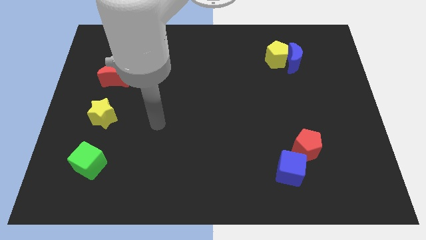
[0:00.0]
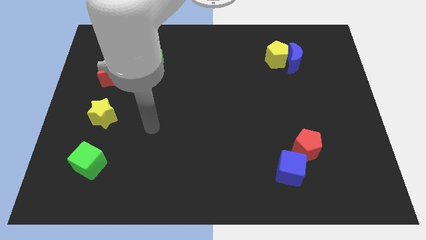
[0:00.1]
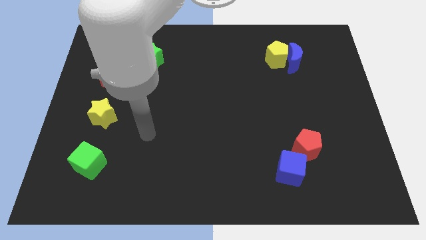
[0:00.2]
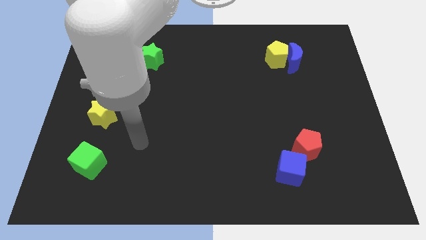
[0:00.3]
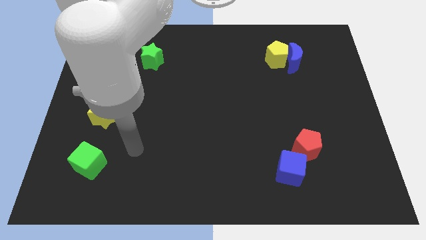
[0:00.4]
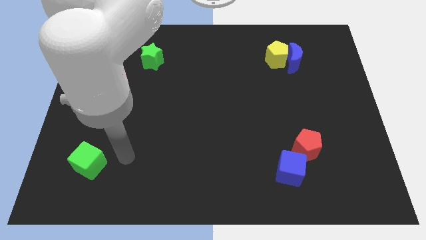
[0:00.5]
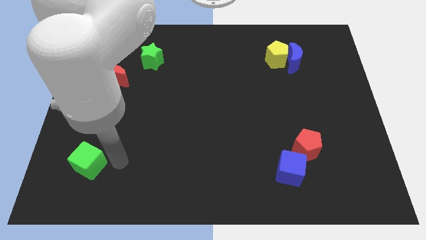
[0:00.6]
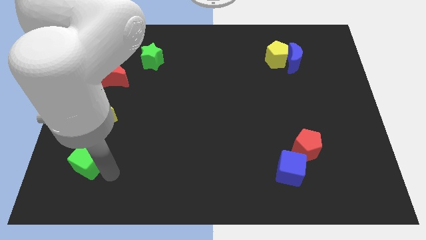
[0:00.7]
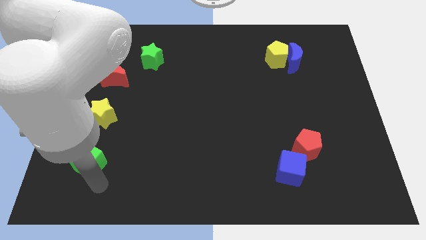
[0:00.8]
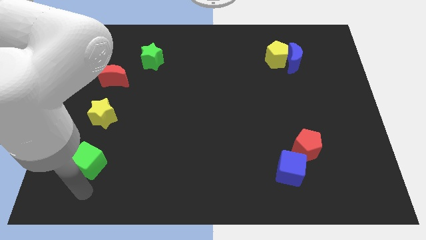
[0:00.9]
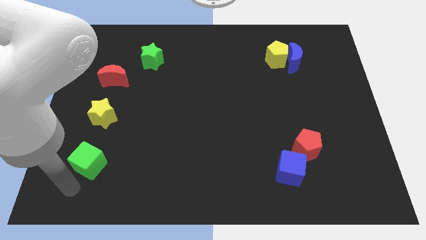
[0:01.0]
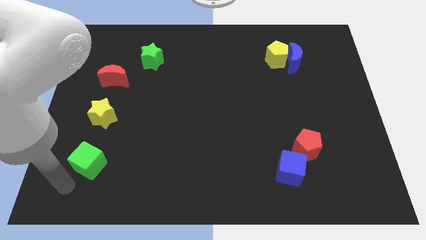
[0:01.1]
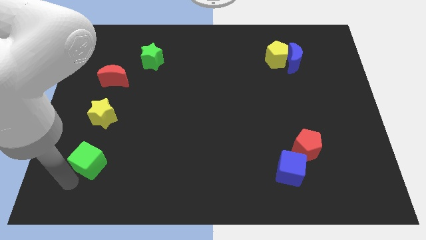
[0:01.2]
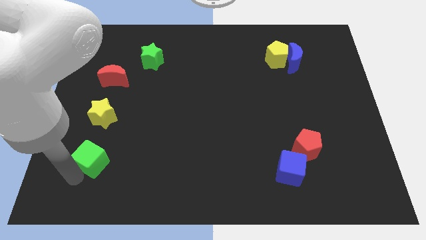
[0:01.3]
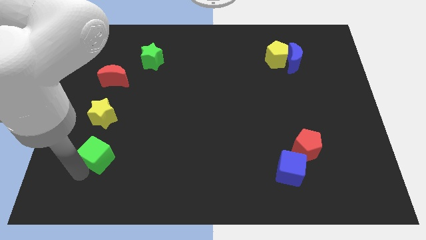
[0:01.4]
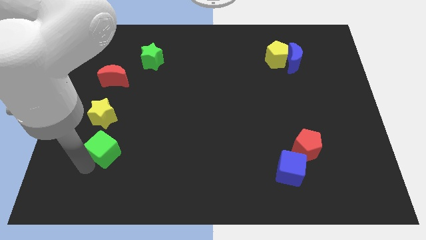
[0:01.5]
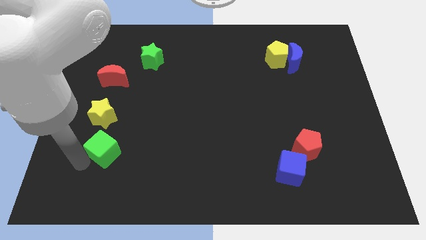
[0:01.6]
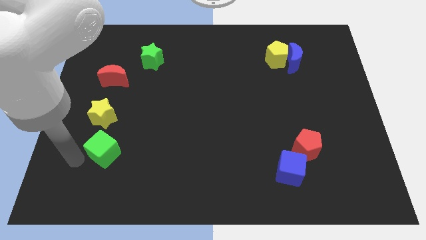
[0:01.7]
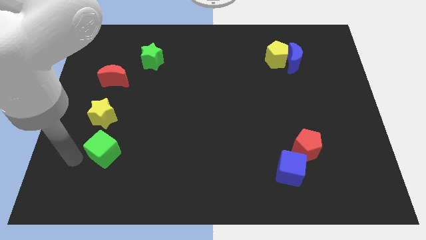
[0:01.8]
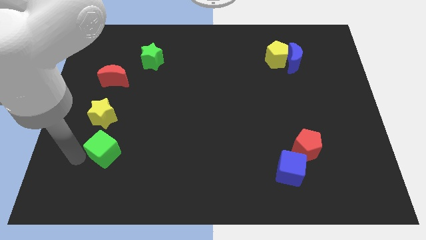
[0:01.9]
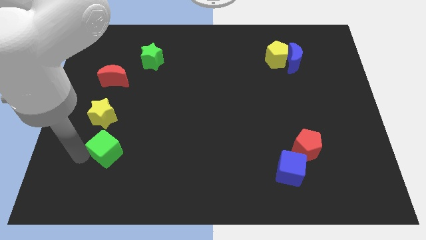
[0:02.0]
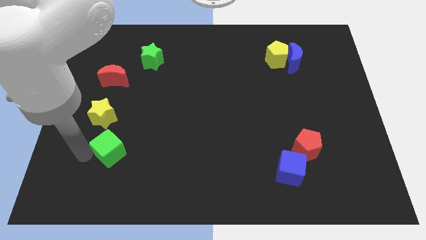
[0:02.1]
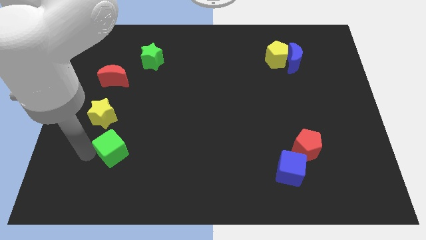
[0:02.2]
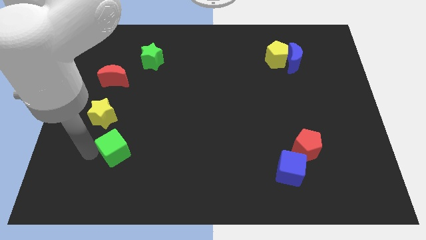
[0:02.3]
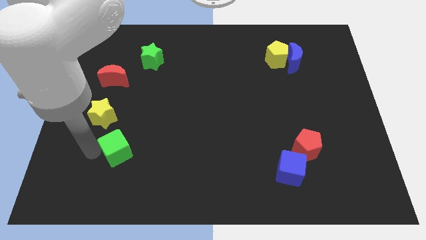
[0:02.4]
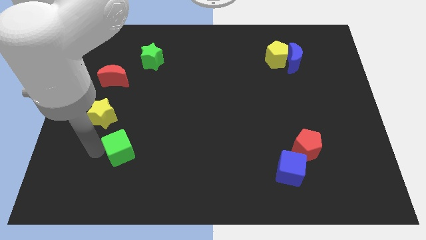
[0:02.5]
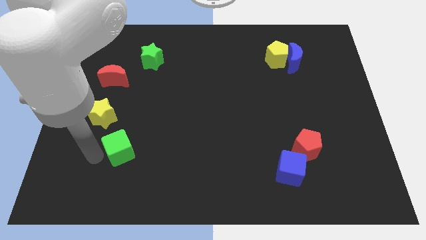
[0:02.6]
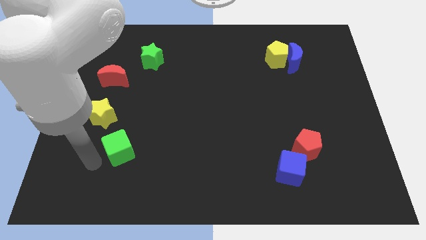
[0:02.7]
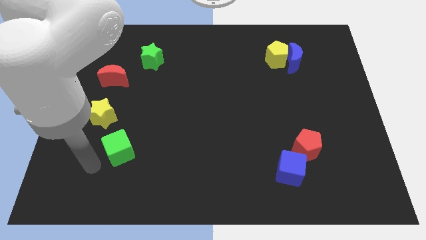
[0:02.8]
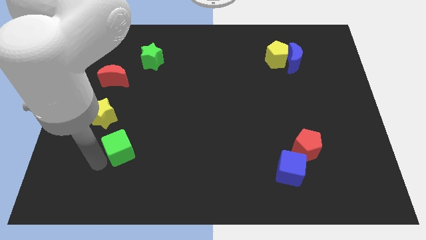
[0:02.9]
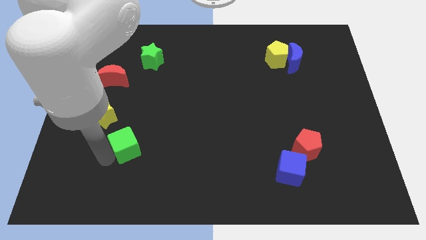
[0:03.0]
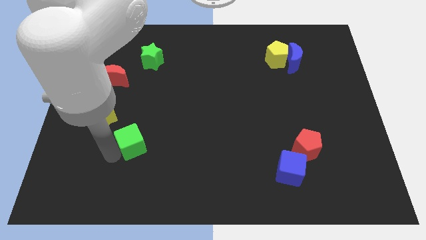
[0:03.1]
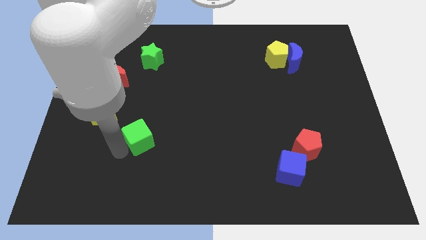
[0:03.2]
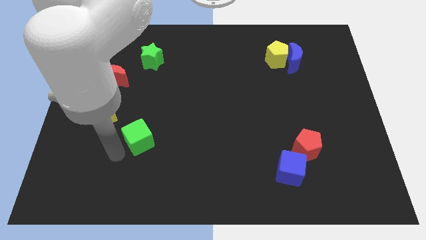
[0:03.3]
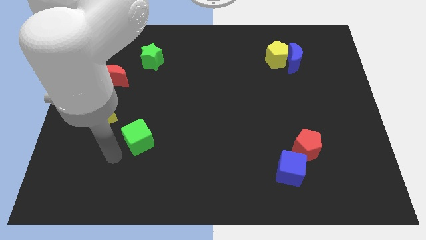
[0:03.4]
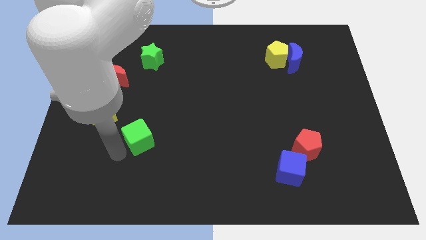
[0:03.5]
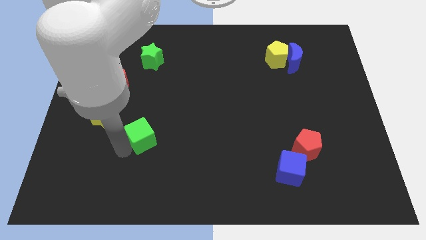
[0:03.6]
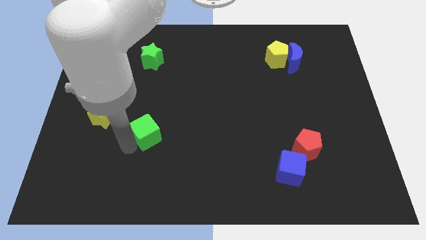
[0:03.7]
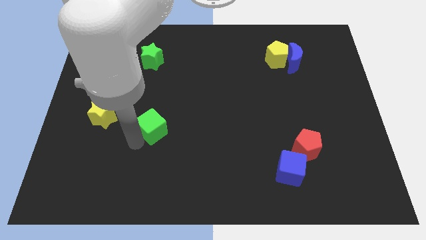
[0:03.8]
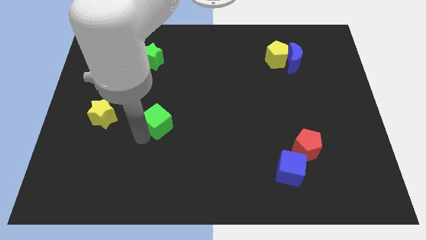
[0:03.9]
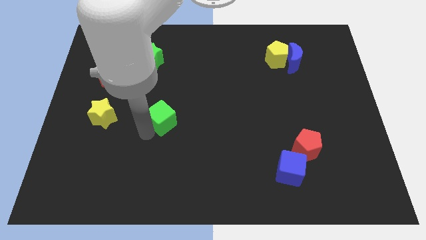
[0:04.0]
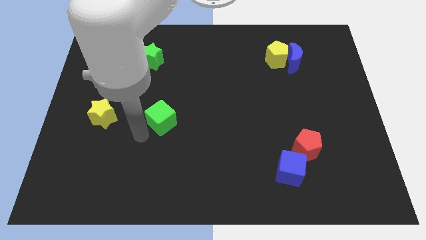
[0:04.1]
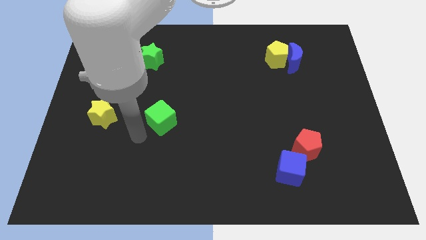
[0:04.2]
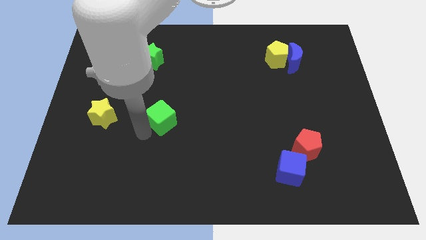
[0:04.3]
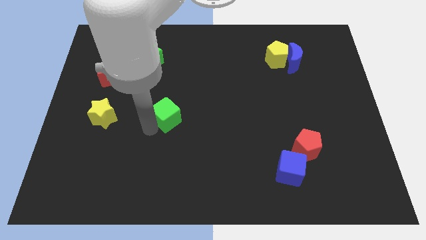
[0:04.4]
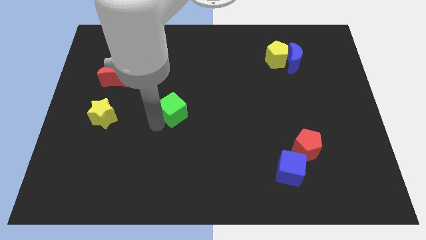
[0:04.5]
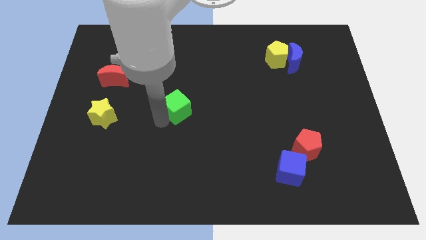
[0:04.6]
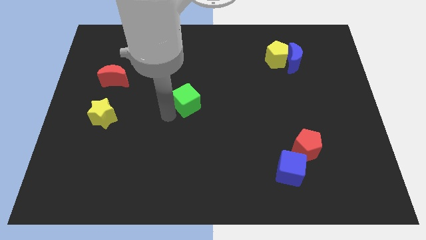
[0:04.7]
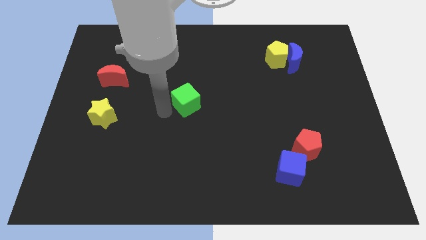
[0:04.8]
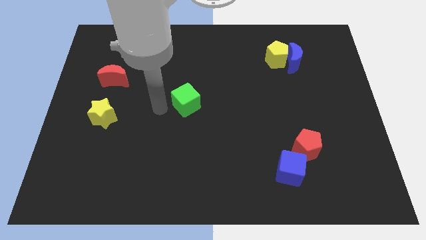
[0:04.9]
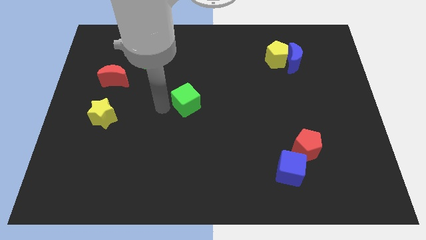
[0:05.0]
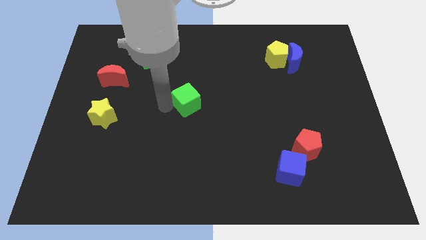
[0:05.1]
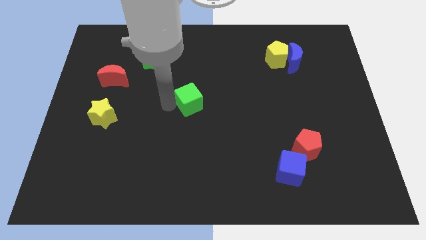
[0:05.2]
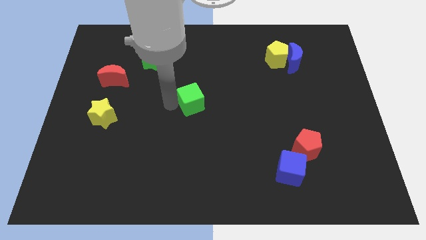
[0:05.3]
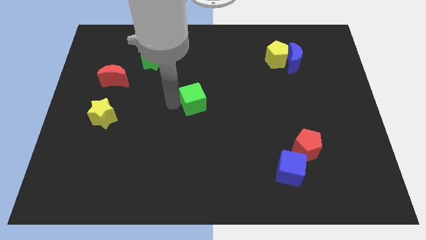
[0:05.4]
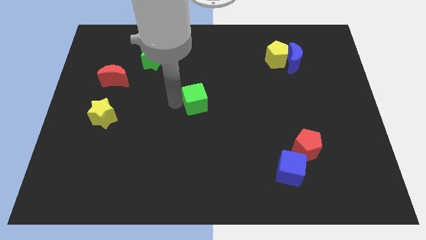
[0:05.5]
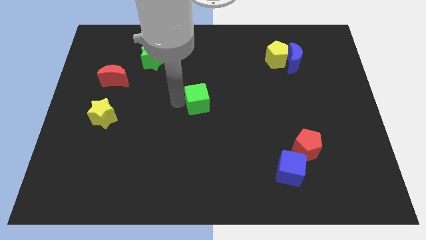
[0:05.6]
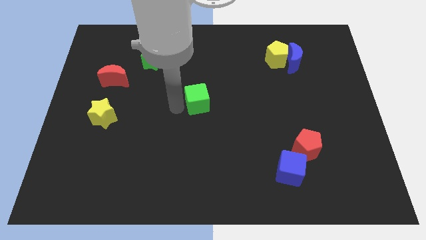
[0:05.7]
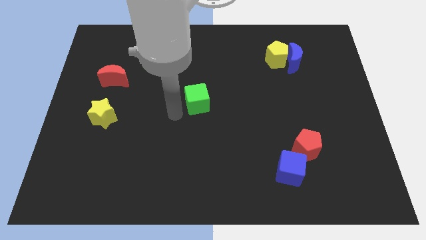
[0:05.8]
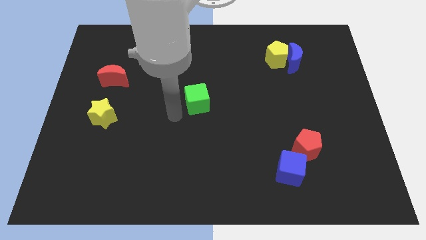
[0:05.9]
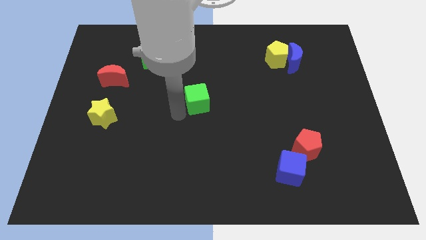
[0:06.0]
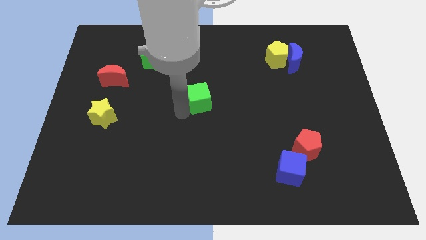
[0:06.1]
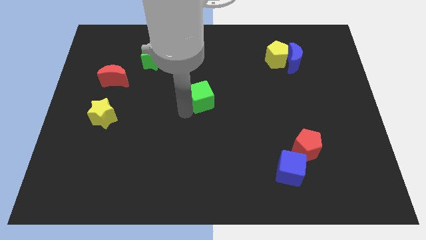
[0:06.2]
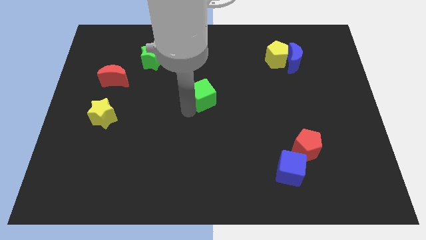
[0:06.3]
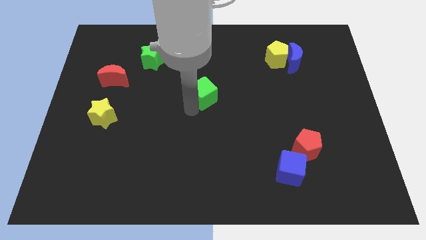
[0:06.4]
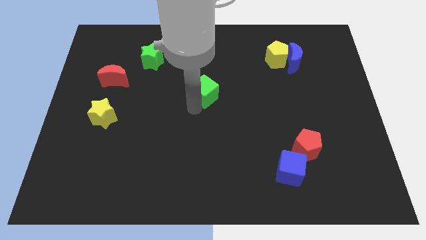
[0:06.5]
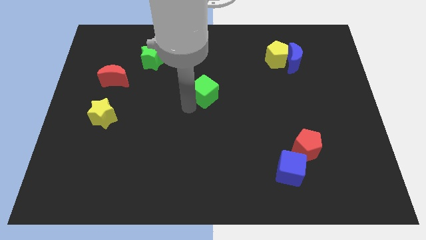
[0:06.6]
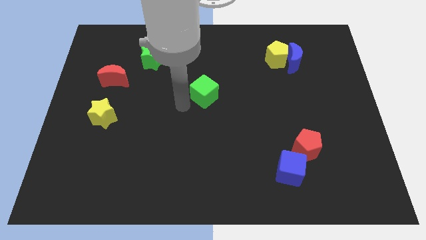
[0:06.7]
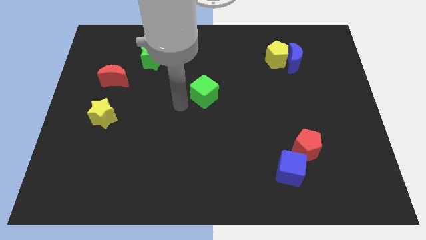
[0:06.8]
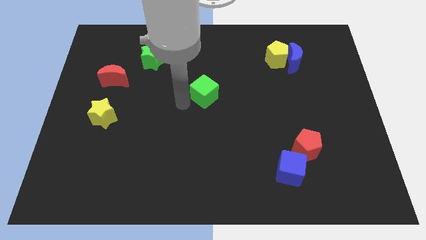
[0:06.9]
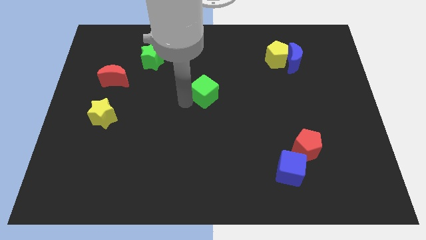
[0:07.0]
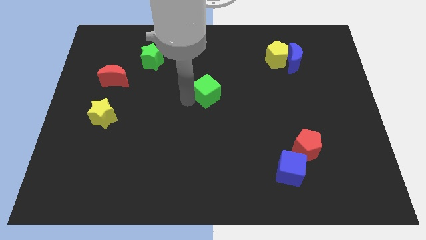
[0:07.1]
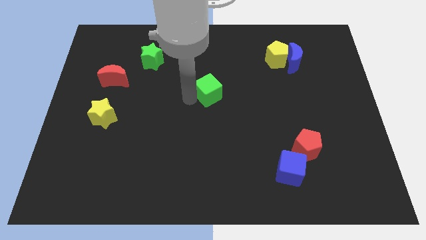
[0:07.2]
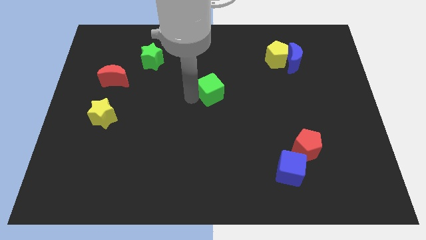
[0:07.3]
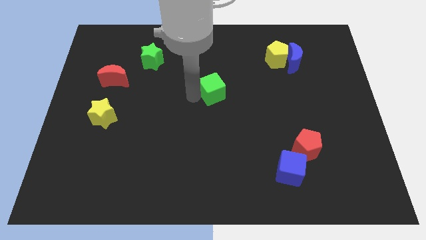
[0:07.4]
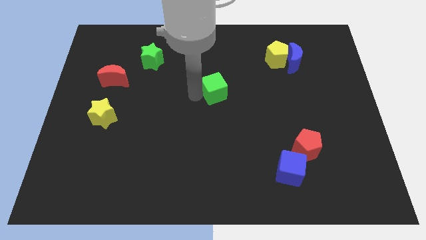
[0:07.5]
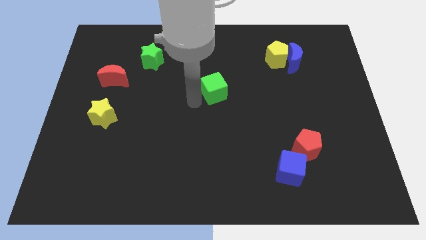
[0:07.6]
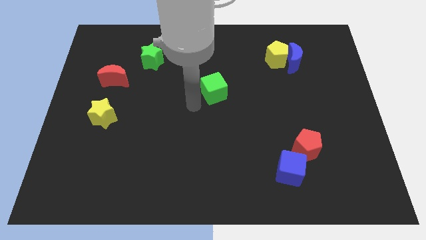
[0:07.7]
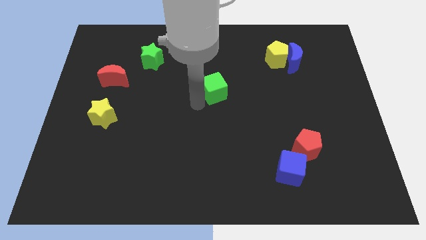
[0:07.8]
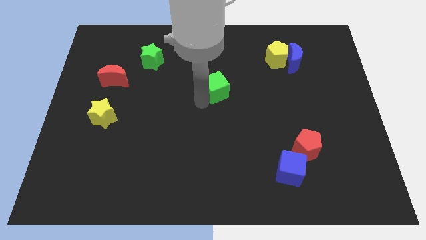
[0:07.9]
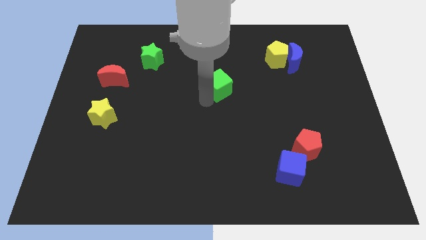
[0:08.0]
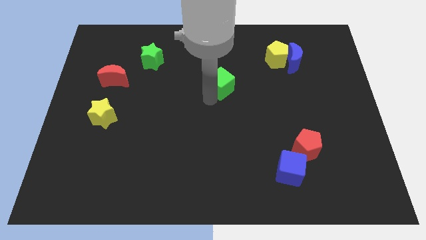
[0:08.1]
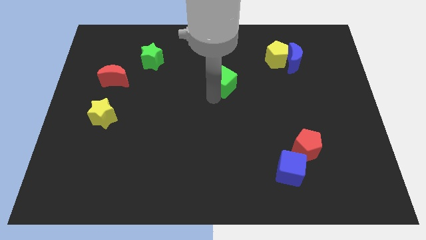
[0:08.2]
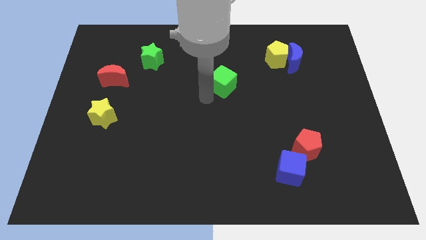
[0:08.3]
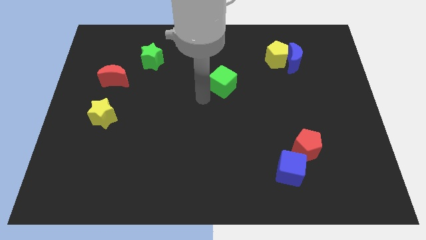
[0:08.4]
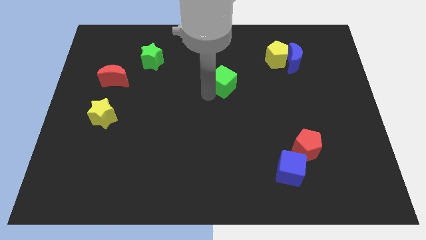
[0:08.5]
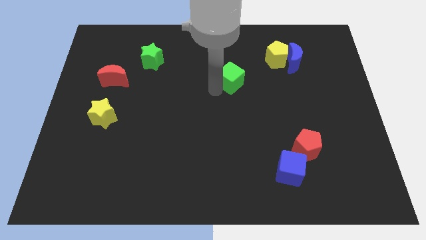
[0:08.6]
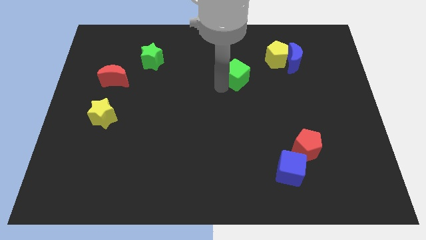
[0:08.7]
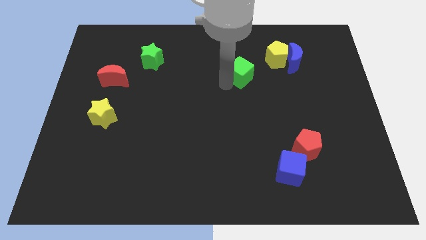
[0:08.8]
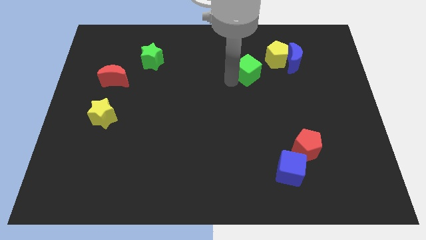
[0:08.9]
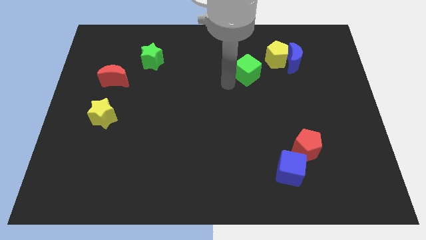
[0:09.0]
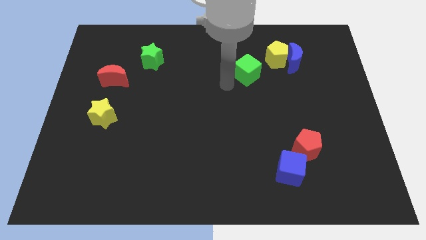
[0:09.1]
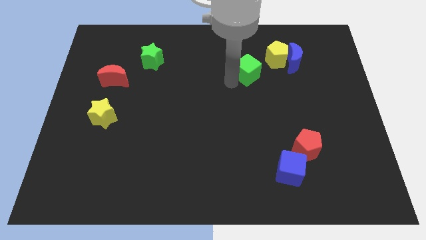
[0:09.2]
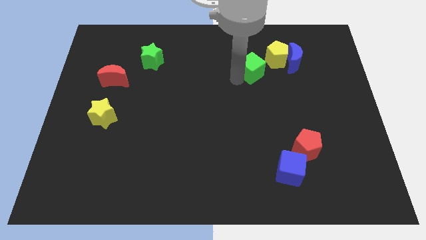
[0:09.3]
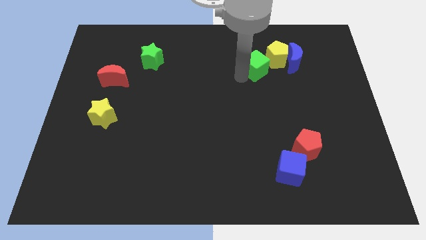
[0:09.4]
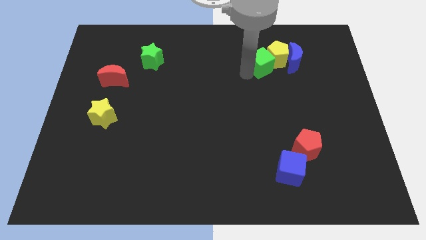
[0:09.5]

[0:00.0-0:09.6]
push the green cube to the yellow pentagon
